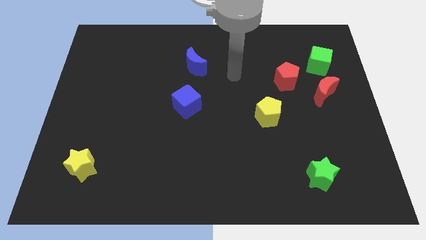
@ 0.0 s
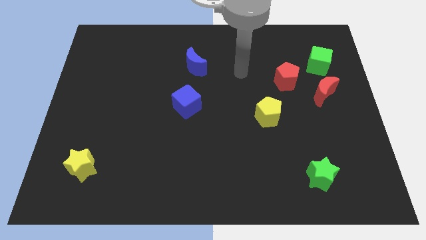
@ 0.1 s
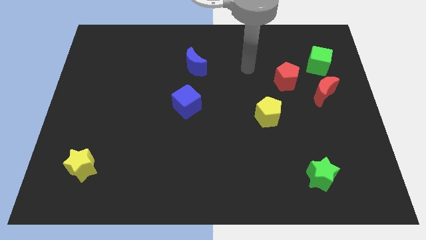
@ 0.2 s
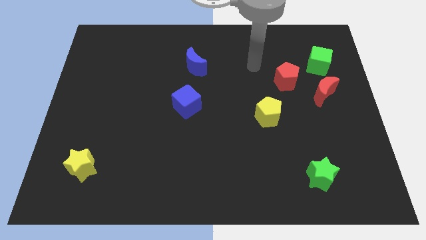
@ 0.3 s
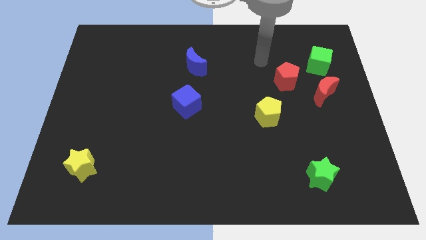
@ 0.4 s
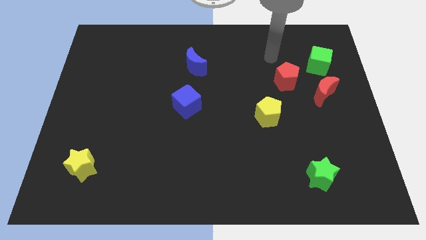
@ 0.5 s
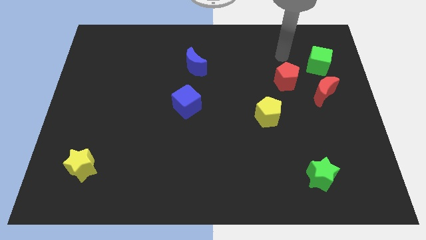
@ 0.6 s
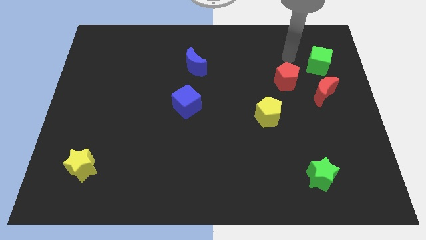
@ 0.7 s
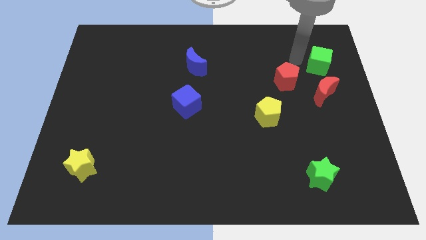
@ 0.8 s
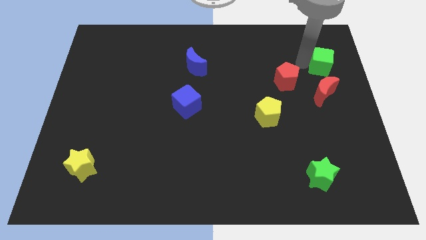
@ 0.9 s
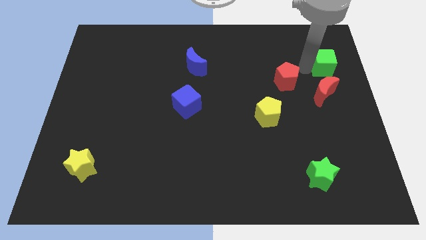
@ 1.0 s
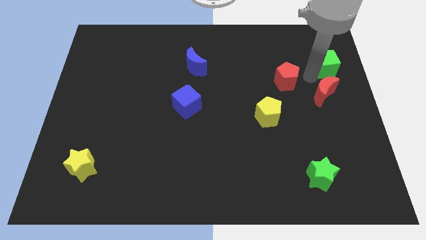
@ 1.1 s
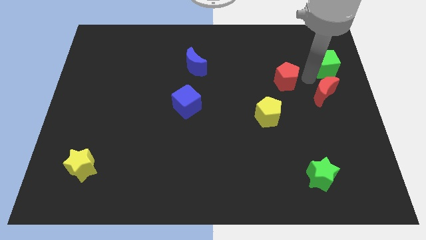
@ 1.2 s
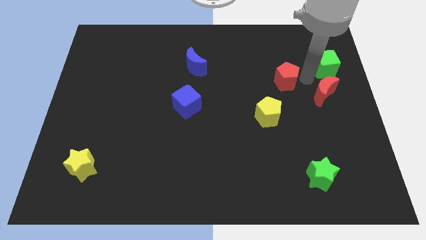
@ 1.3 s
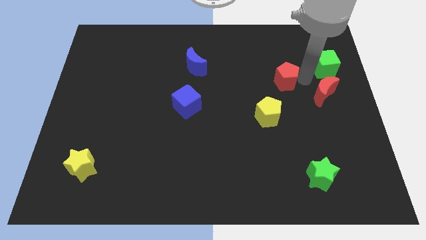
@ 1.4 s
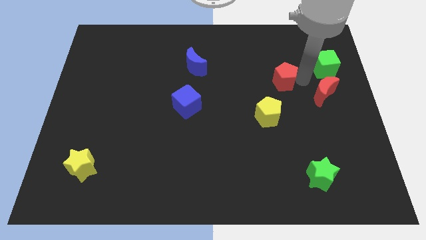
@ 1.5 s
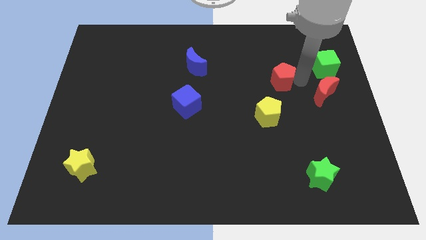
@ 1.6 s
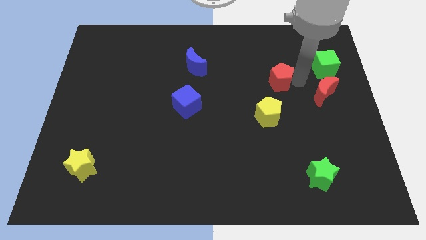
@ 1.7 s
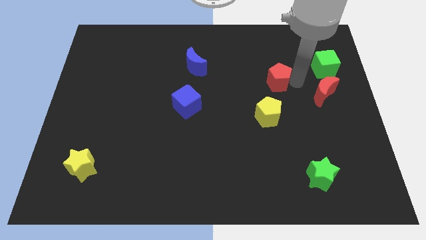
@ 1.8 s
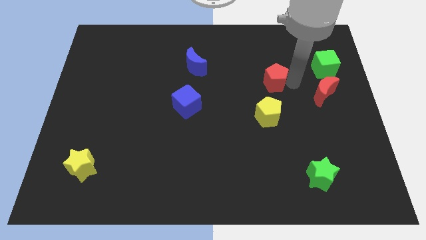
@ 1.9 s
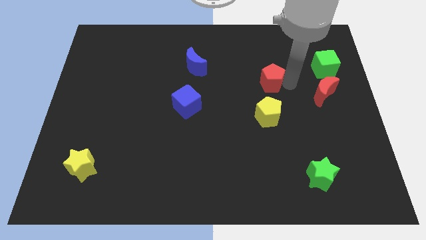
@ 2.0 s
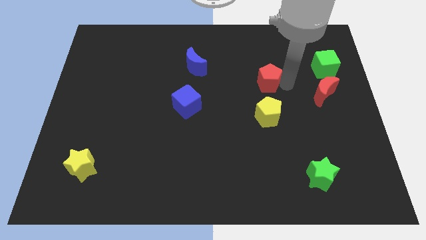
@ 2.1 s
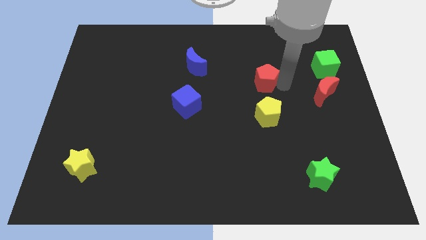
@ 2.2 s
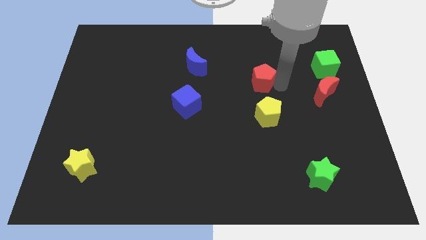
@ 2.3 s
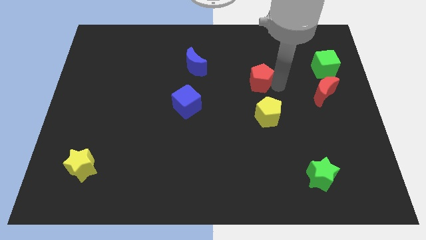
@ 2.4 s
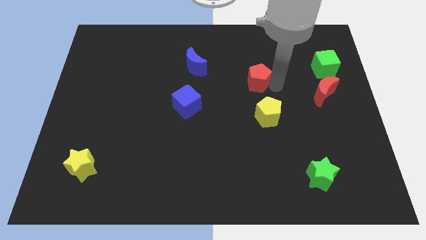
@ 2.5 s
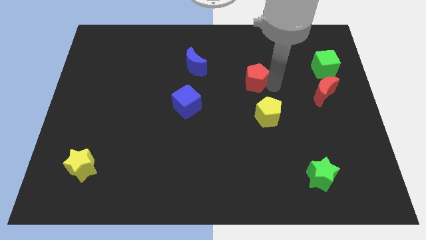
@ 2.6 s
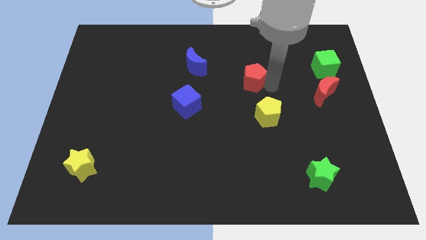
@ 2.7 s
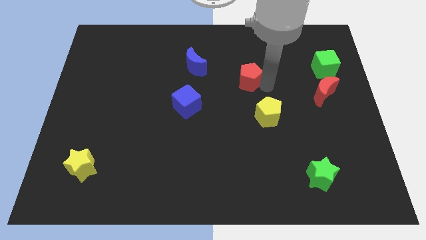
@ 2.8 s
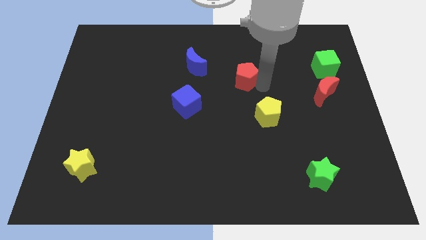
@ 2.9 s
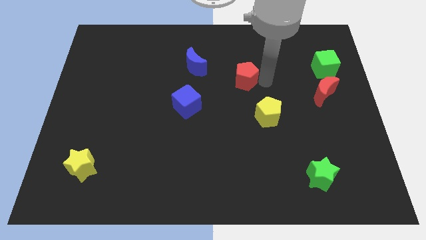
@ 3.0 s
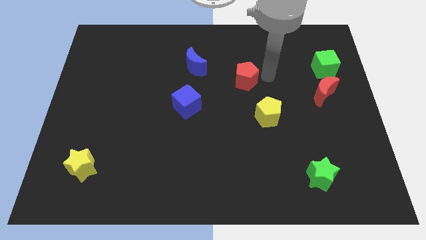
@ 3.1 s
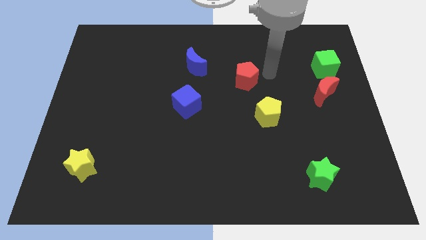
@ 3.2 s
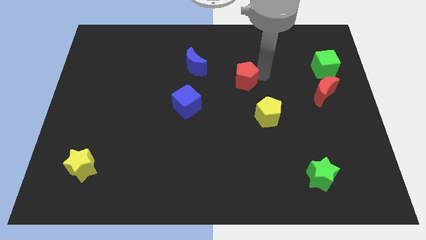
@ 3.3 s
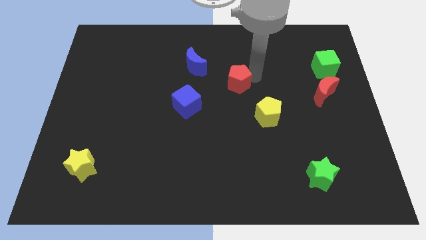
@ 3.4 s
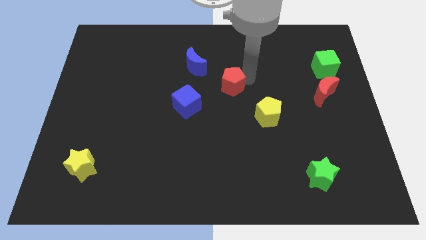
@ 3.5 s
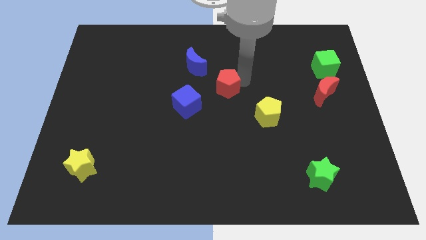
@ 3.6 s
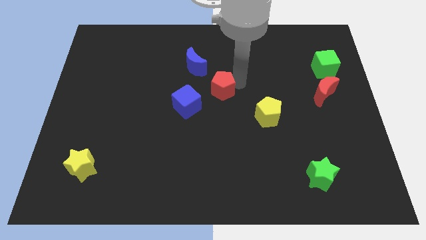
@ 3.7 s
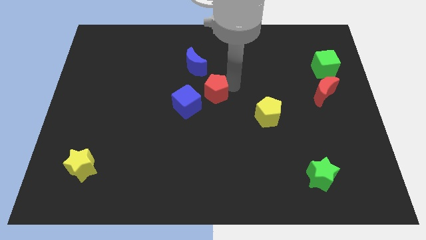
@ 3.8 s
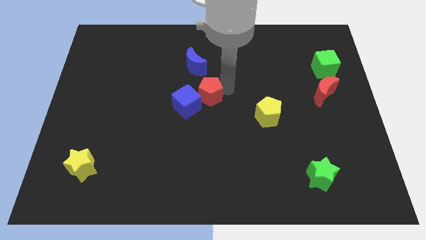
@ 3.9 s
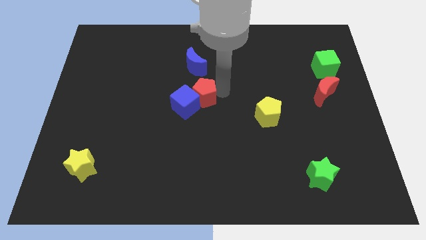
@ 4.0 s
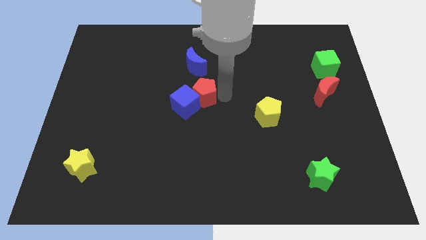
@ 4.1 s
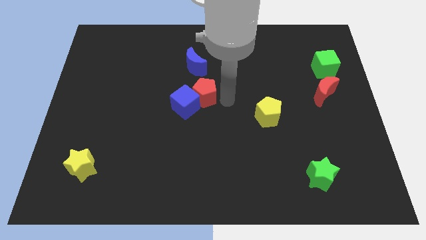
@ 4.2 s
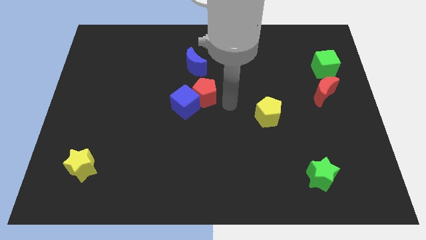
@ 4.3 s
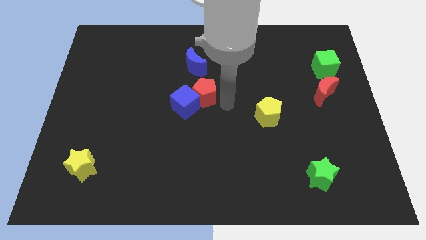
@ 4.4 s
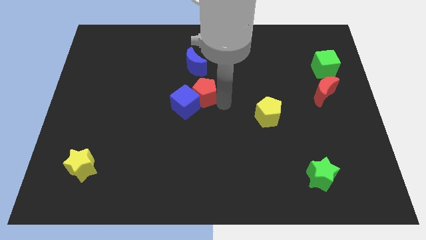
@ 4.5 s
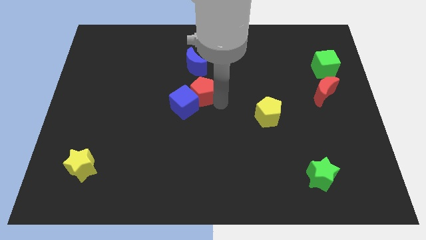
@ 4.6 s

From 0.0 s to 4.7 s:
push the red pentagon to the left

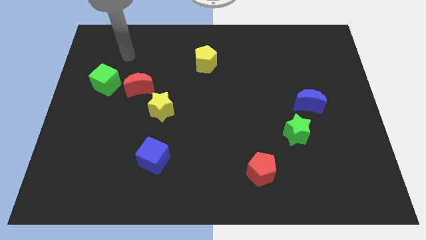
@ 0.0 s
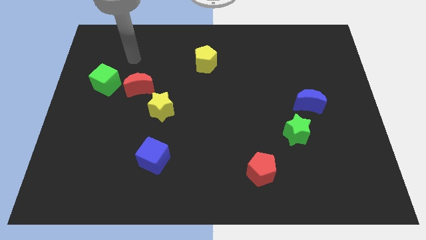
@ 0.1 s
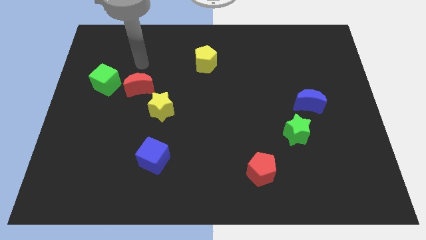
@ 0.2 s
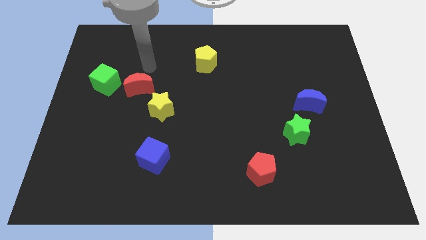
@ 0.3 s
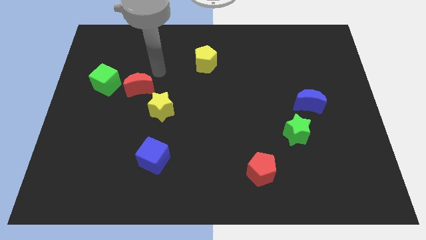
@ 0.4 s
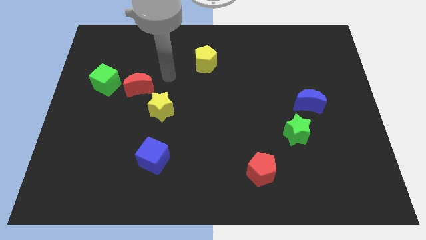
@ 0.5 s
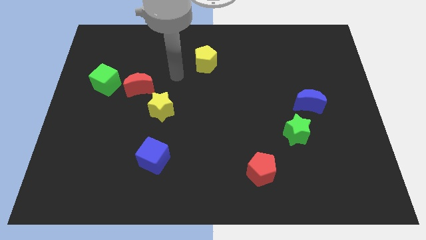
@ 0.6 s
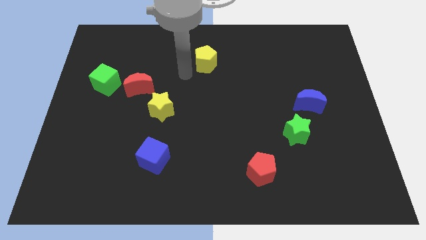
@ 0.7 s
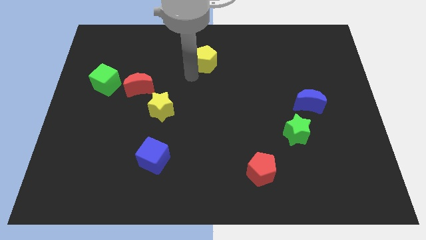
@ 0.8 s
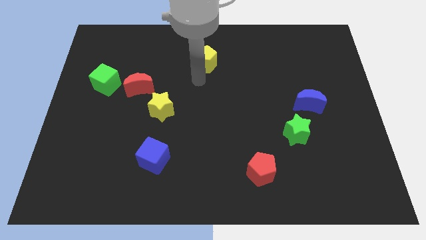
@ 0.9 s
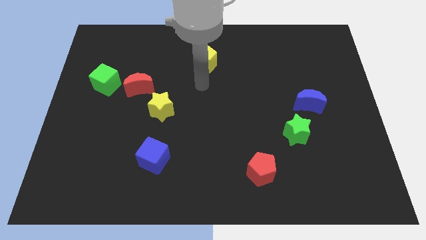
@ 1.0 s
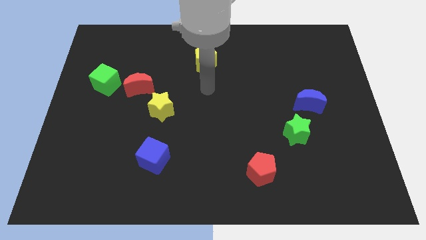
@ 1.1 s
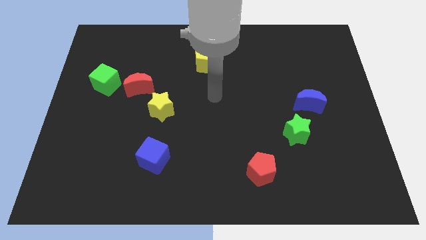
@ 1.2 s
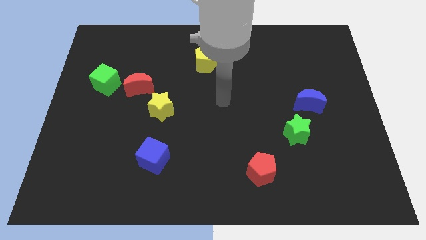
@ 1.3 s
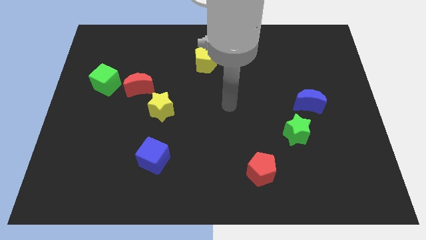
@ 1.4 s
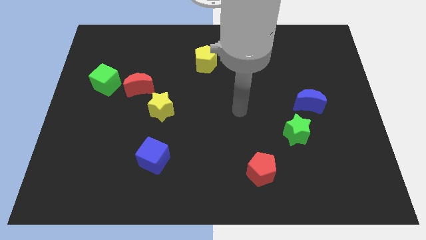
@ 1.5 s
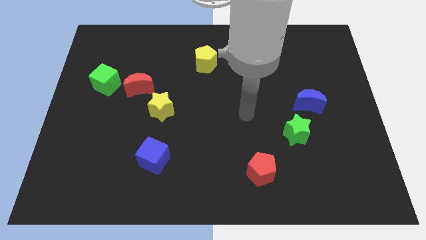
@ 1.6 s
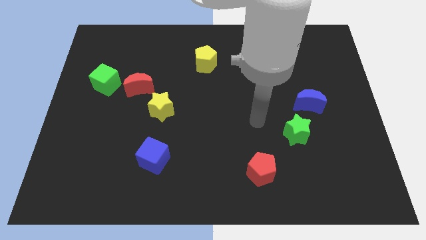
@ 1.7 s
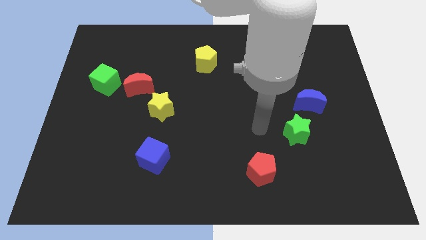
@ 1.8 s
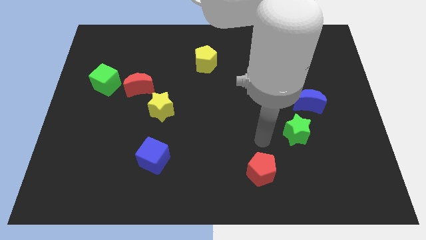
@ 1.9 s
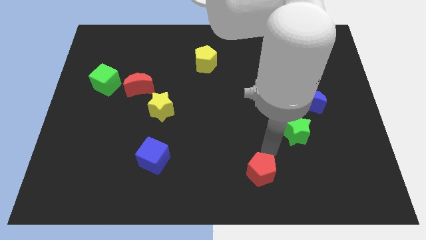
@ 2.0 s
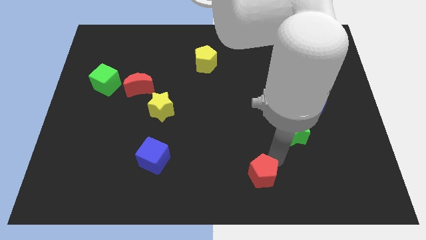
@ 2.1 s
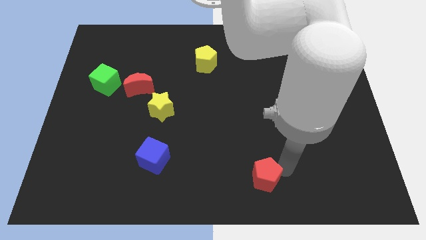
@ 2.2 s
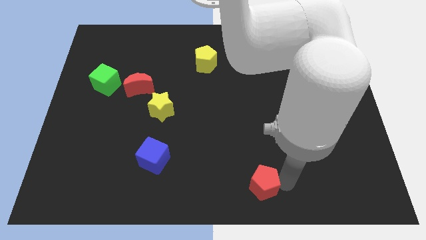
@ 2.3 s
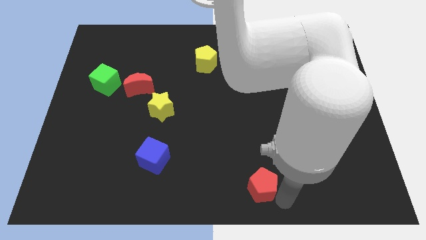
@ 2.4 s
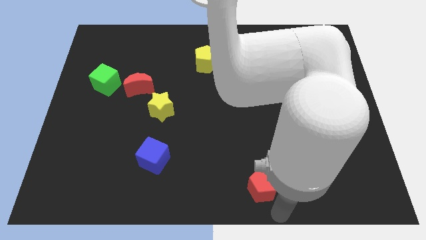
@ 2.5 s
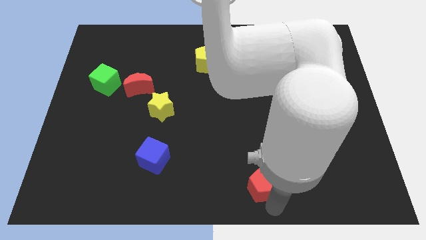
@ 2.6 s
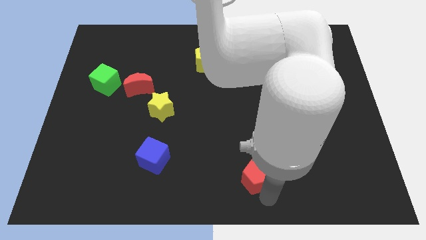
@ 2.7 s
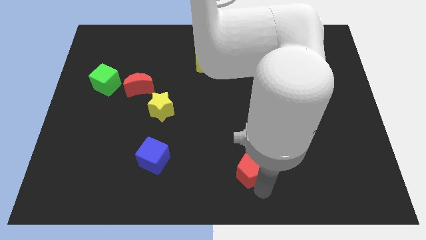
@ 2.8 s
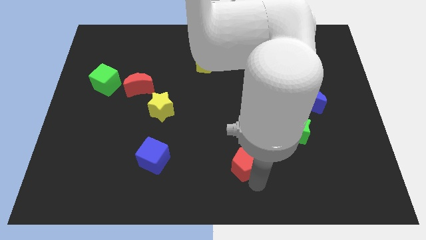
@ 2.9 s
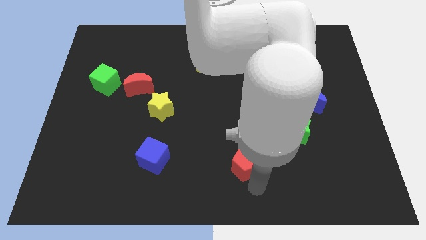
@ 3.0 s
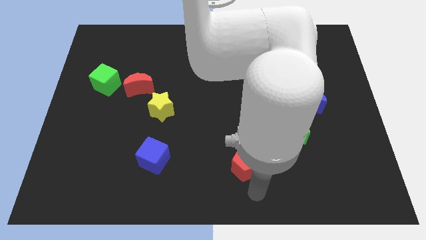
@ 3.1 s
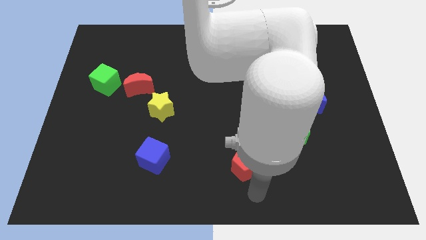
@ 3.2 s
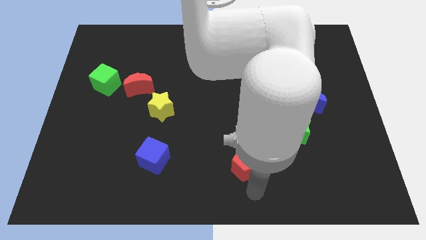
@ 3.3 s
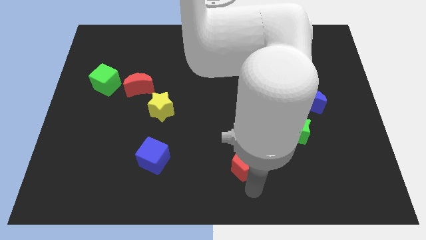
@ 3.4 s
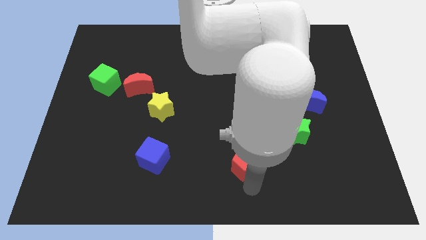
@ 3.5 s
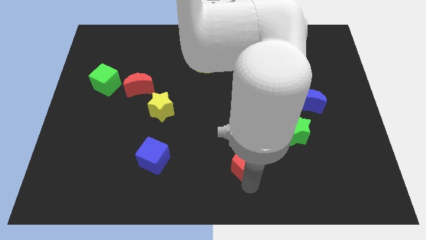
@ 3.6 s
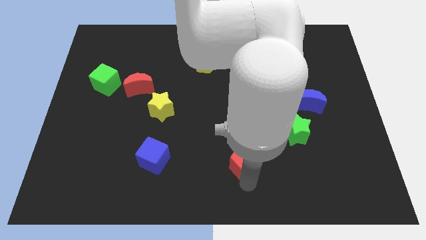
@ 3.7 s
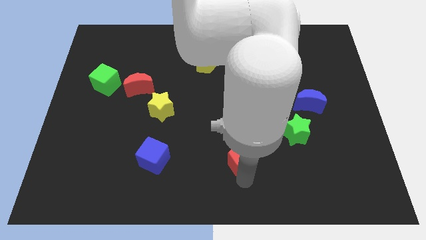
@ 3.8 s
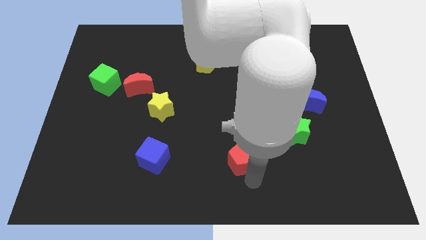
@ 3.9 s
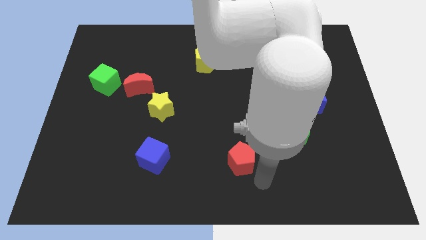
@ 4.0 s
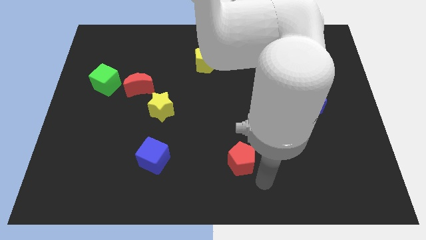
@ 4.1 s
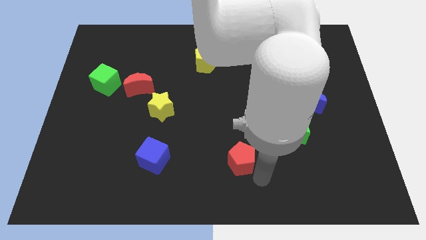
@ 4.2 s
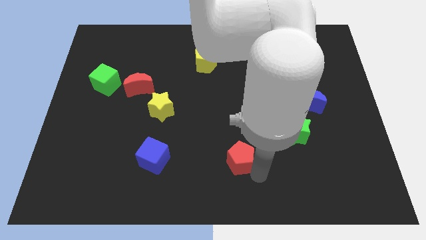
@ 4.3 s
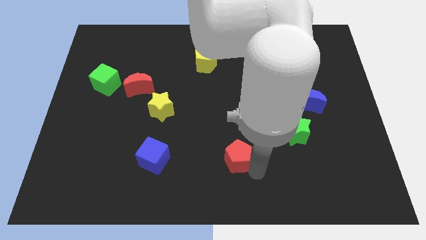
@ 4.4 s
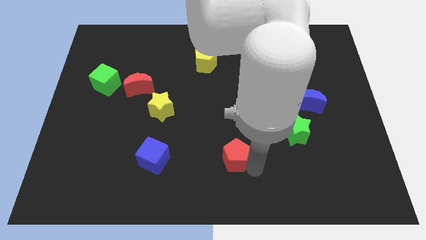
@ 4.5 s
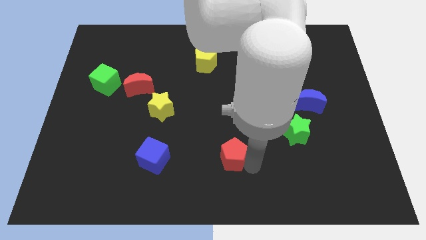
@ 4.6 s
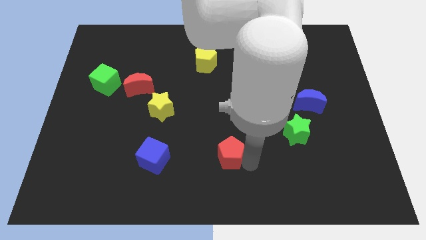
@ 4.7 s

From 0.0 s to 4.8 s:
move the red pentagon up and to the left diagonally slightly
